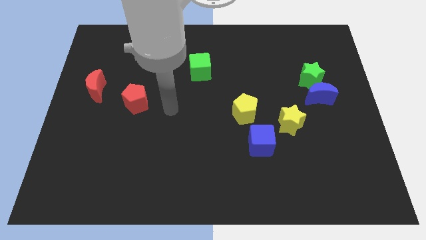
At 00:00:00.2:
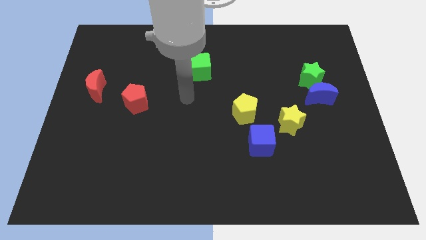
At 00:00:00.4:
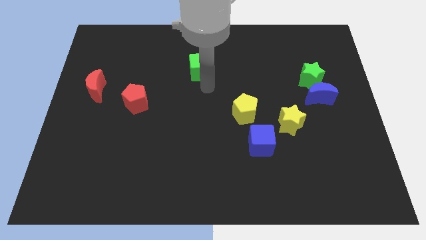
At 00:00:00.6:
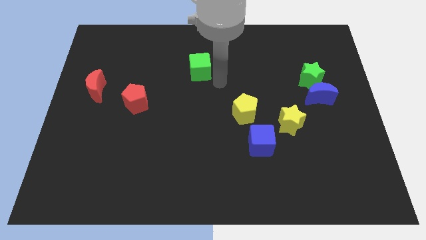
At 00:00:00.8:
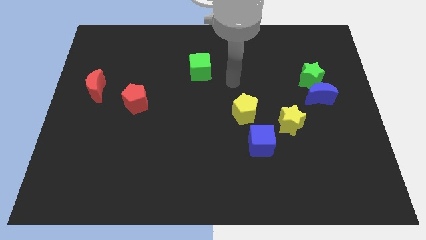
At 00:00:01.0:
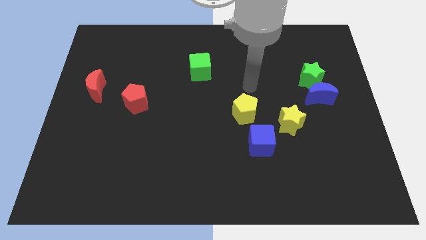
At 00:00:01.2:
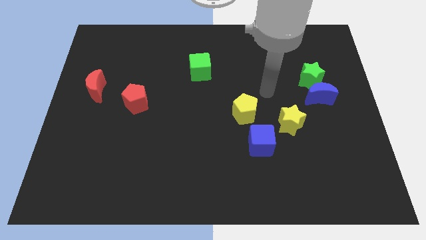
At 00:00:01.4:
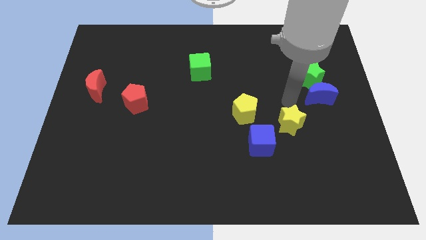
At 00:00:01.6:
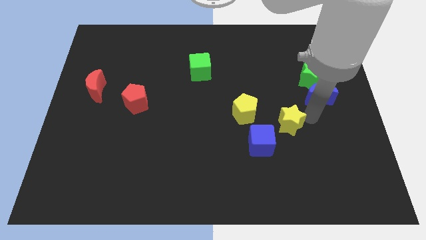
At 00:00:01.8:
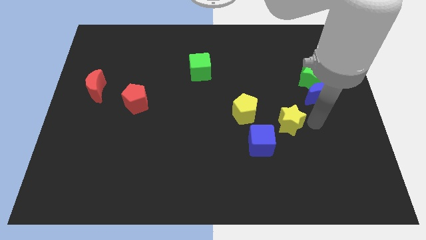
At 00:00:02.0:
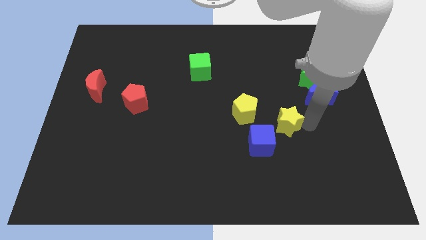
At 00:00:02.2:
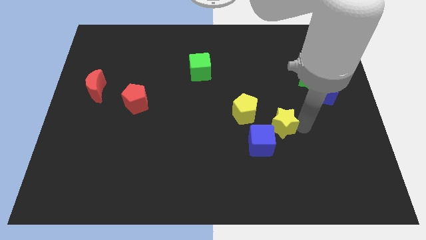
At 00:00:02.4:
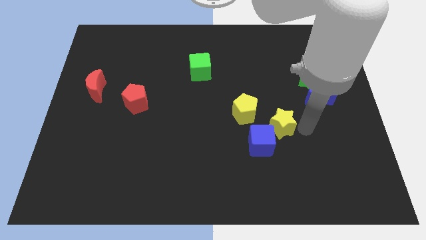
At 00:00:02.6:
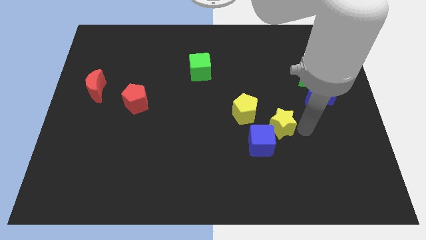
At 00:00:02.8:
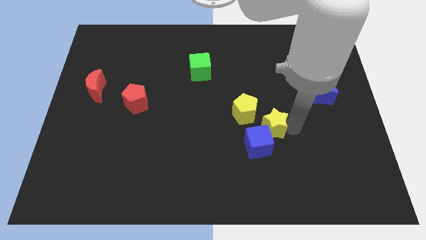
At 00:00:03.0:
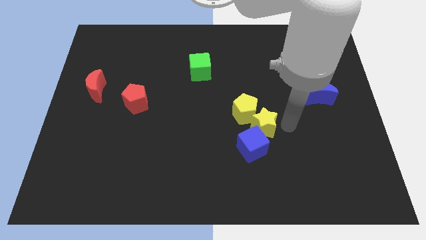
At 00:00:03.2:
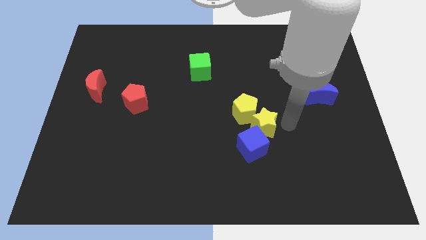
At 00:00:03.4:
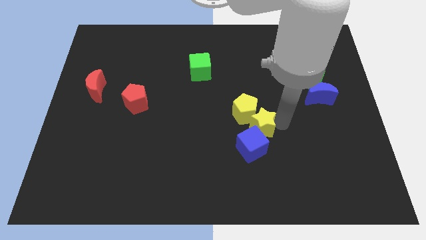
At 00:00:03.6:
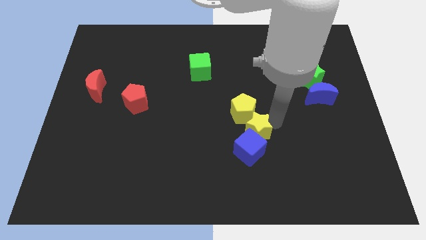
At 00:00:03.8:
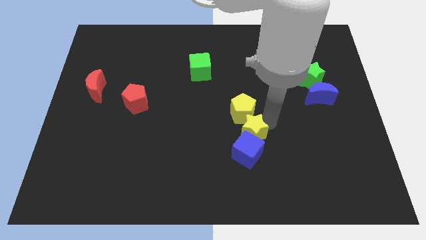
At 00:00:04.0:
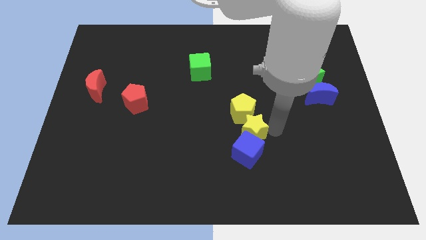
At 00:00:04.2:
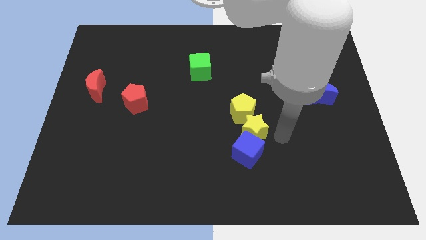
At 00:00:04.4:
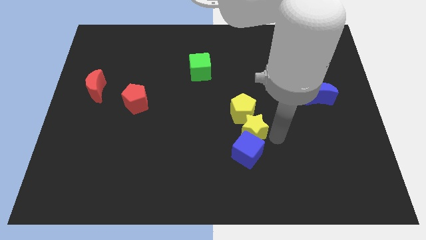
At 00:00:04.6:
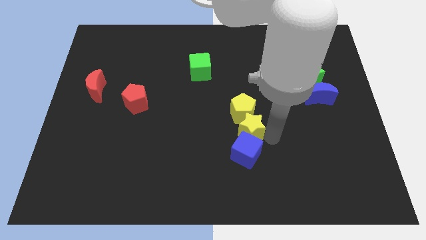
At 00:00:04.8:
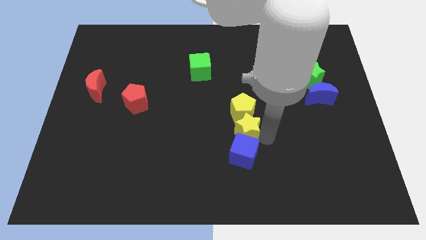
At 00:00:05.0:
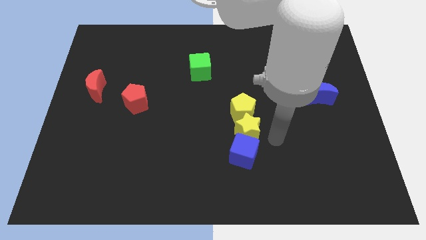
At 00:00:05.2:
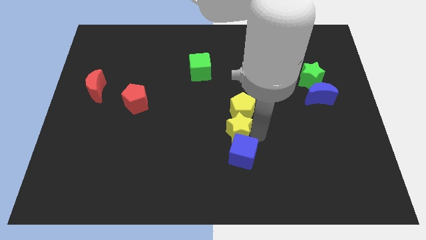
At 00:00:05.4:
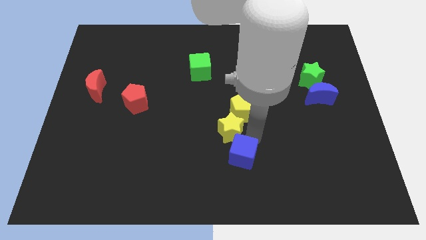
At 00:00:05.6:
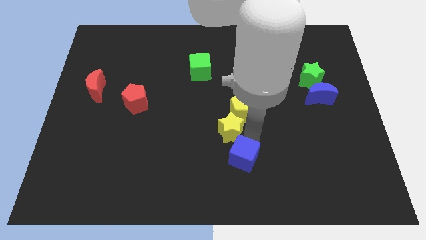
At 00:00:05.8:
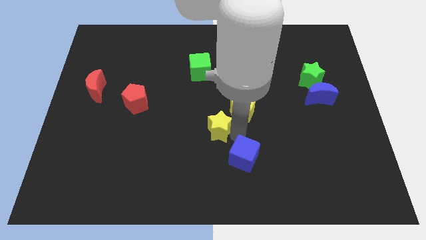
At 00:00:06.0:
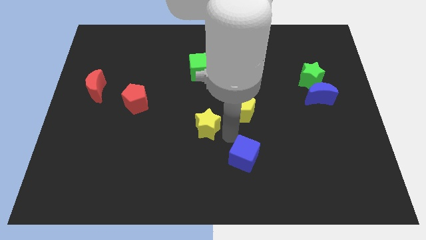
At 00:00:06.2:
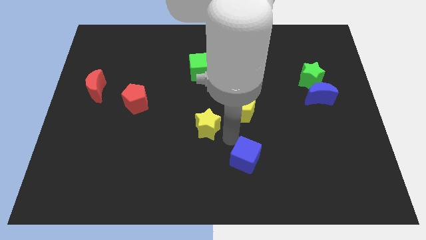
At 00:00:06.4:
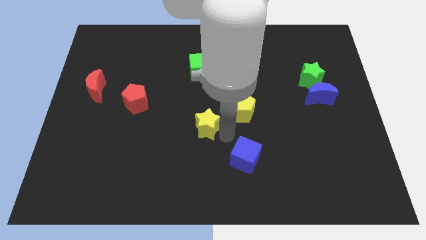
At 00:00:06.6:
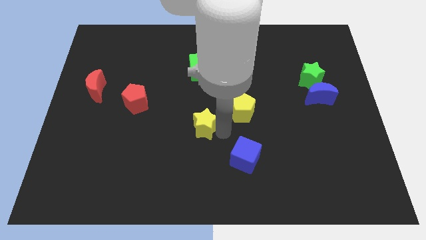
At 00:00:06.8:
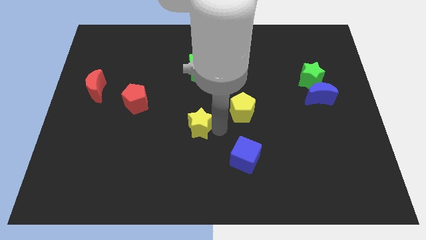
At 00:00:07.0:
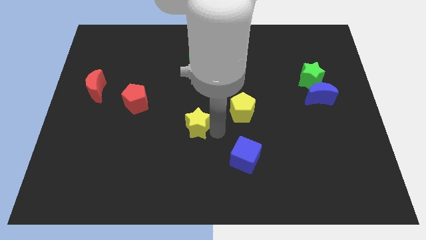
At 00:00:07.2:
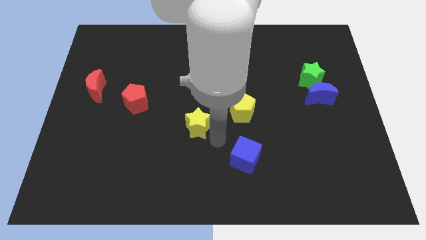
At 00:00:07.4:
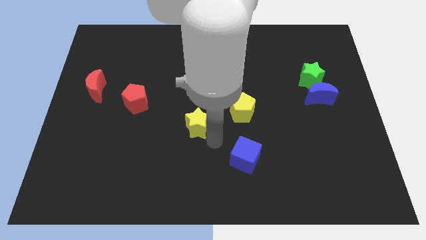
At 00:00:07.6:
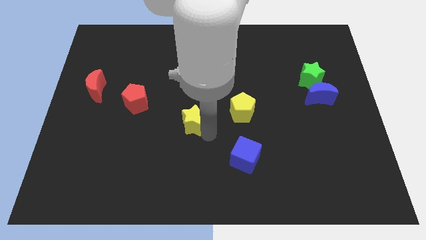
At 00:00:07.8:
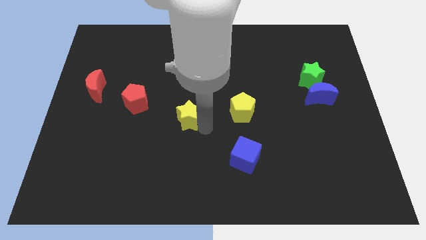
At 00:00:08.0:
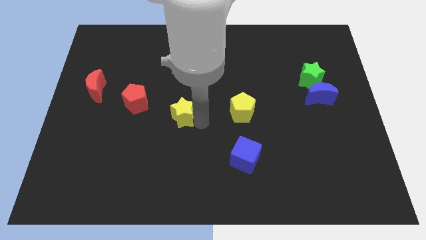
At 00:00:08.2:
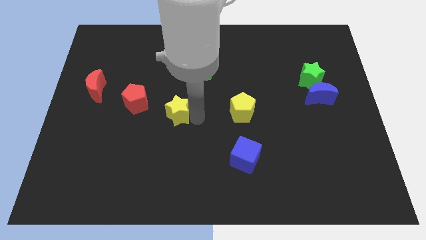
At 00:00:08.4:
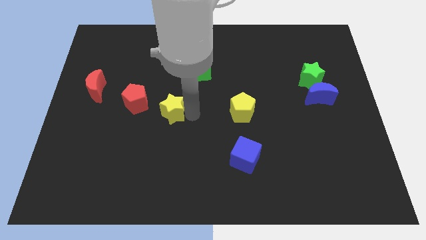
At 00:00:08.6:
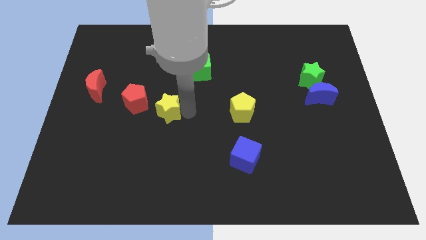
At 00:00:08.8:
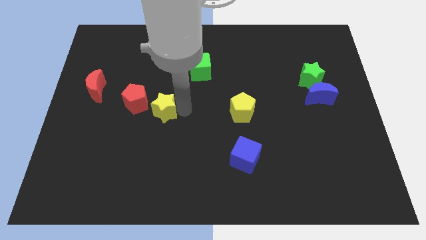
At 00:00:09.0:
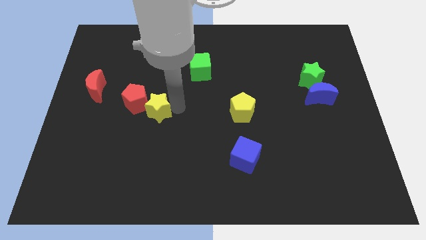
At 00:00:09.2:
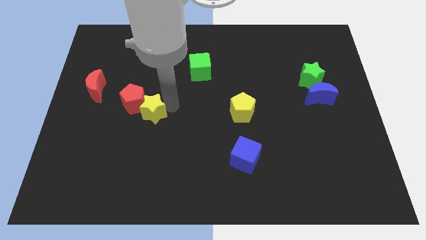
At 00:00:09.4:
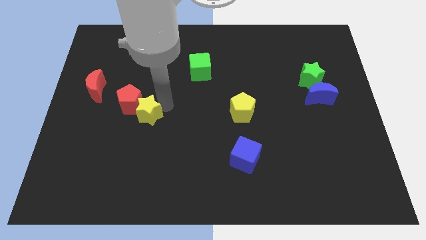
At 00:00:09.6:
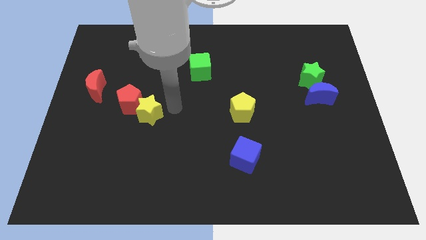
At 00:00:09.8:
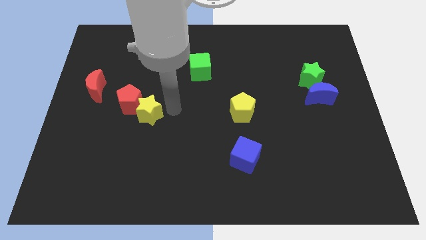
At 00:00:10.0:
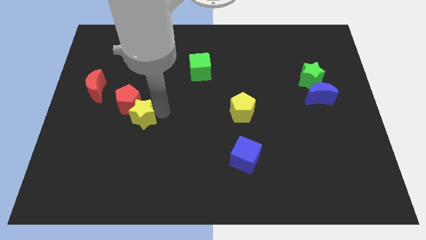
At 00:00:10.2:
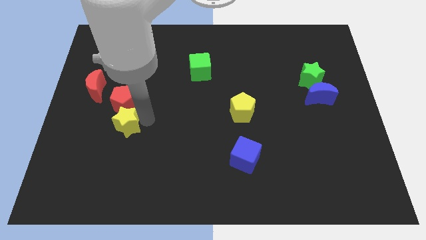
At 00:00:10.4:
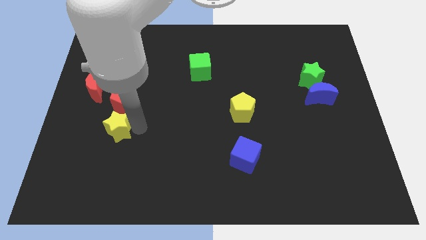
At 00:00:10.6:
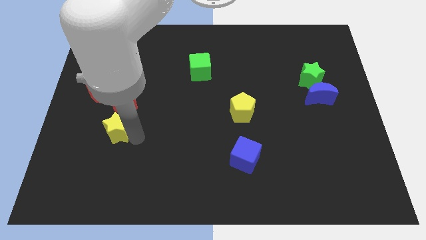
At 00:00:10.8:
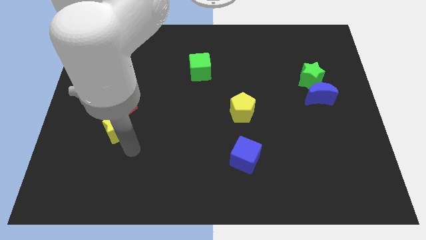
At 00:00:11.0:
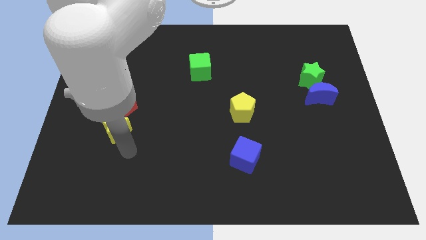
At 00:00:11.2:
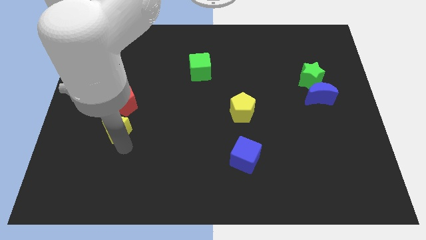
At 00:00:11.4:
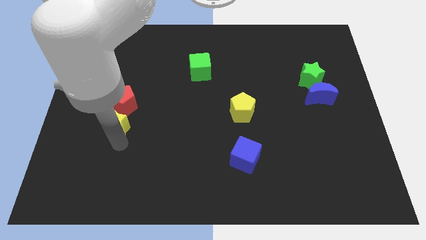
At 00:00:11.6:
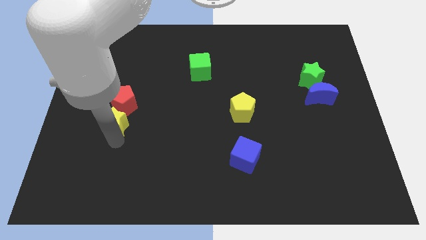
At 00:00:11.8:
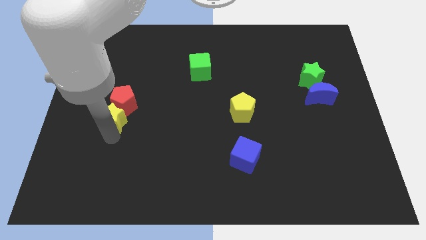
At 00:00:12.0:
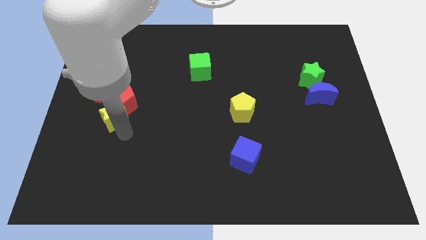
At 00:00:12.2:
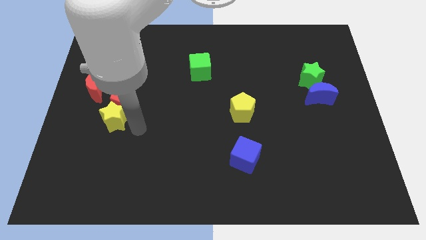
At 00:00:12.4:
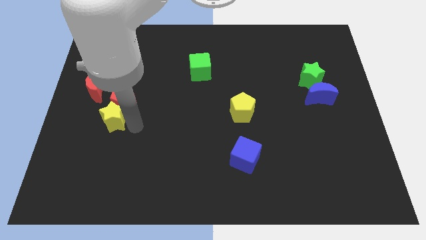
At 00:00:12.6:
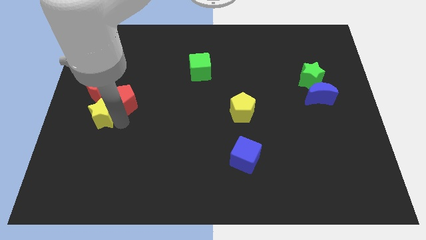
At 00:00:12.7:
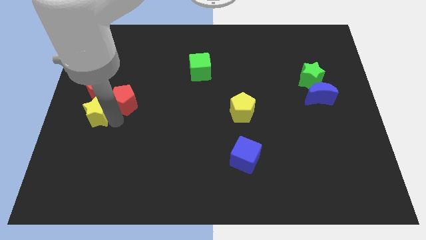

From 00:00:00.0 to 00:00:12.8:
move the yellow star to the left side

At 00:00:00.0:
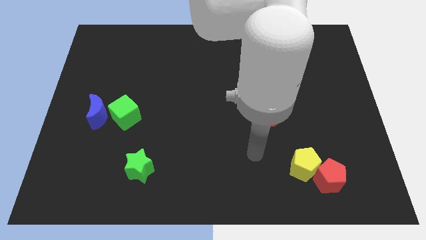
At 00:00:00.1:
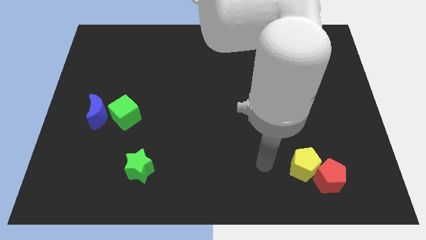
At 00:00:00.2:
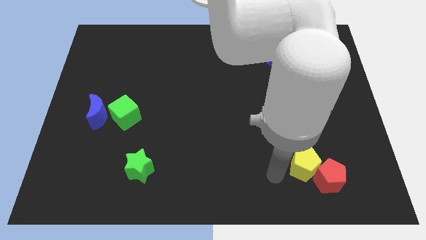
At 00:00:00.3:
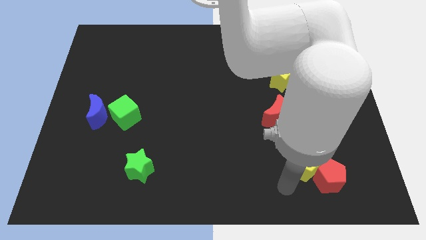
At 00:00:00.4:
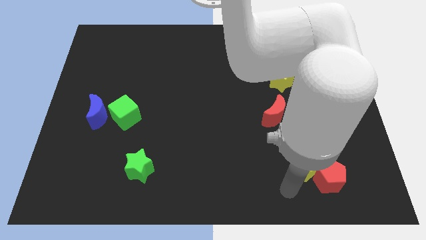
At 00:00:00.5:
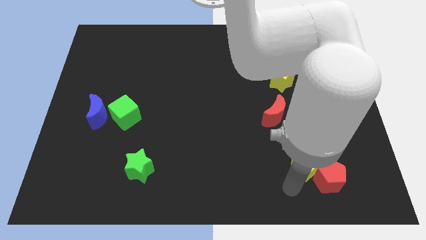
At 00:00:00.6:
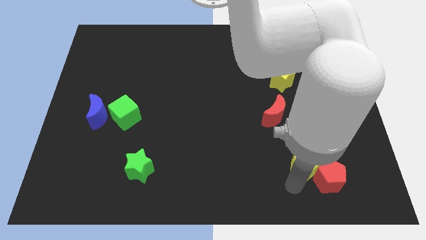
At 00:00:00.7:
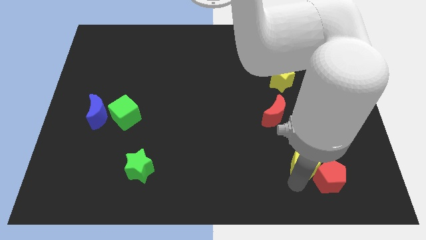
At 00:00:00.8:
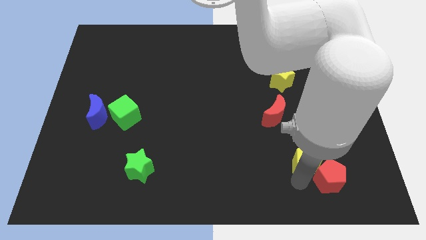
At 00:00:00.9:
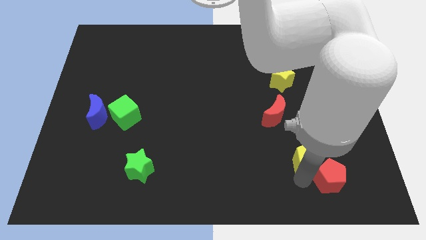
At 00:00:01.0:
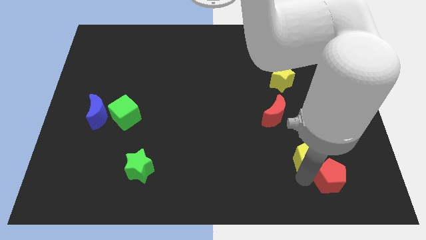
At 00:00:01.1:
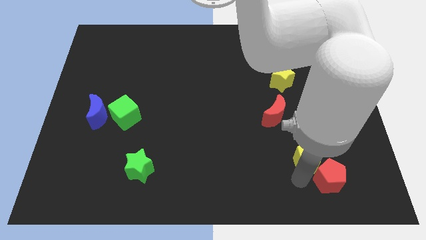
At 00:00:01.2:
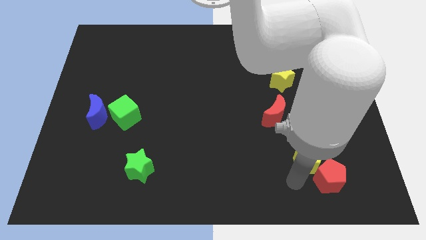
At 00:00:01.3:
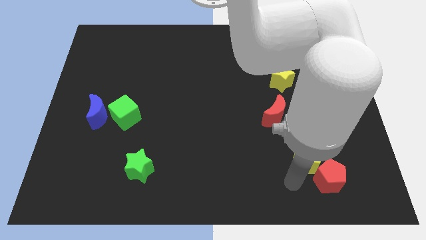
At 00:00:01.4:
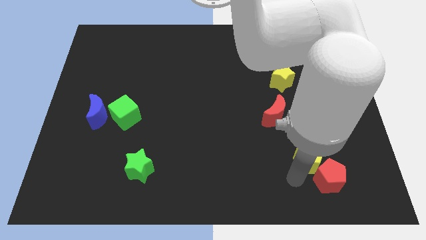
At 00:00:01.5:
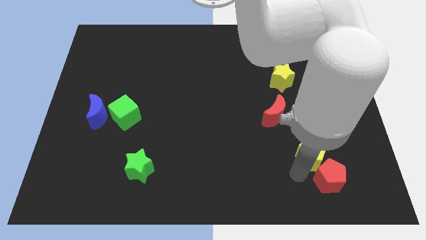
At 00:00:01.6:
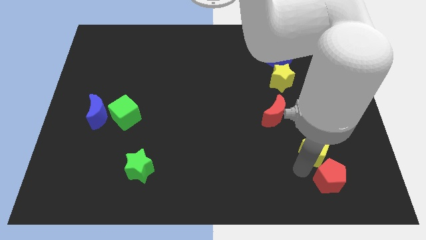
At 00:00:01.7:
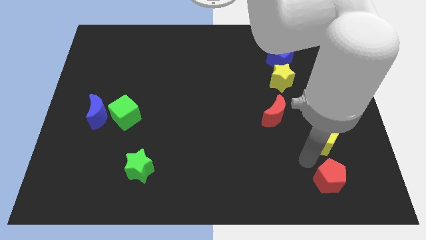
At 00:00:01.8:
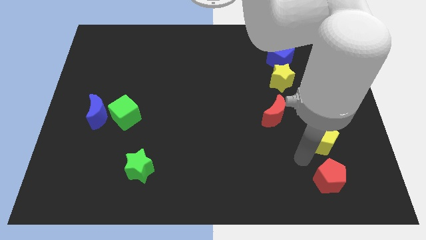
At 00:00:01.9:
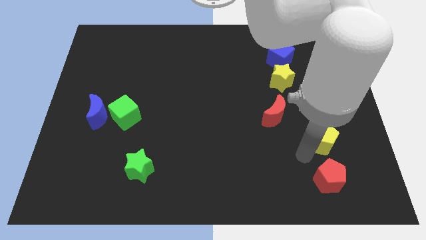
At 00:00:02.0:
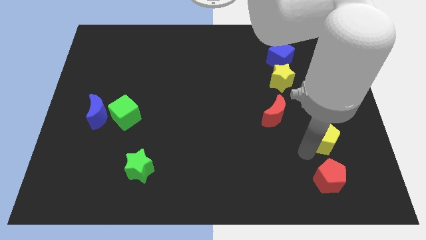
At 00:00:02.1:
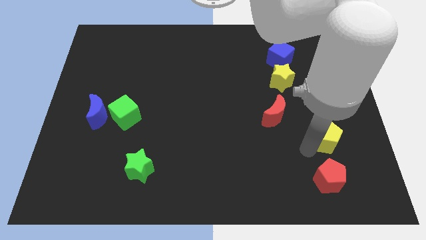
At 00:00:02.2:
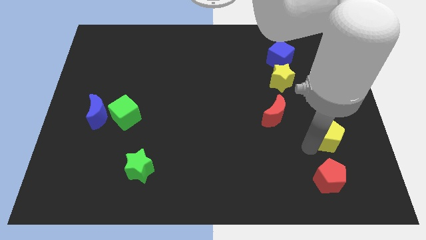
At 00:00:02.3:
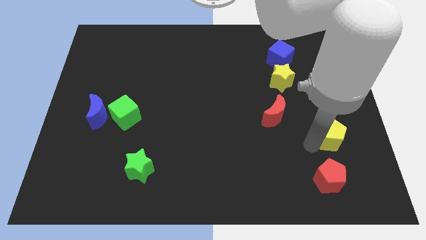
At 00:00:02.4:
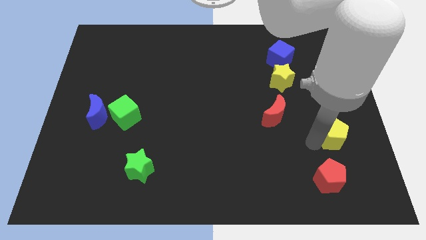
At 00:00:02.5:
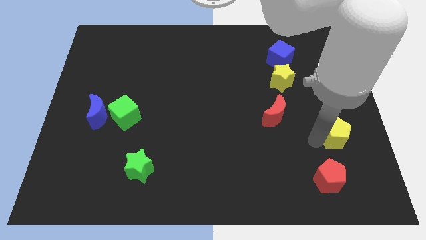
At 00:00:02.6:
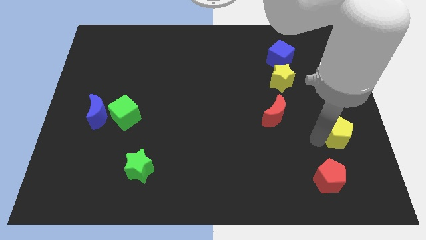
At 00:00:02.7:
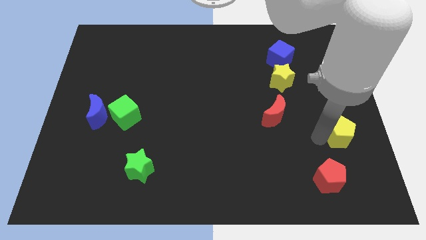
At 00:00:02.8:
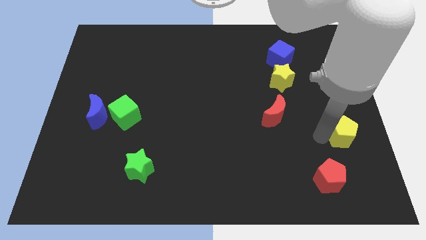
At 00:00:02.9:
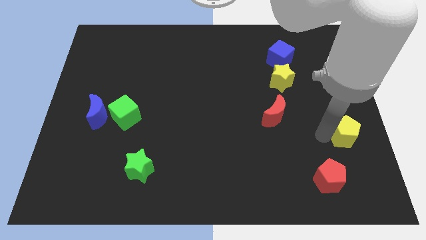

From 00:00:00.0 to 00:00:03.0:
put the yellow pentagon to the right side of the board
